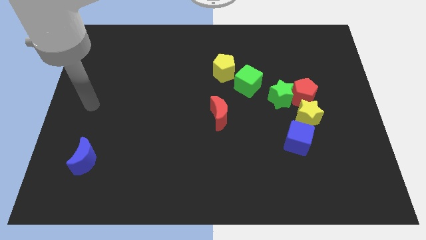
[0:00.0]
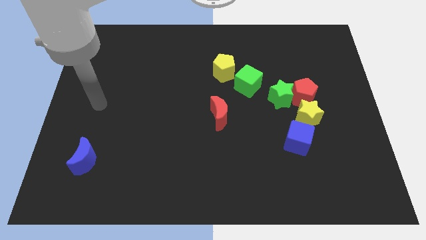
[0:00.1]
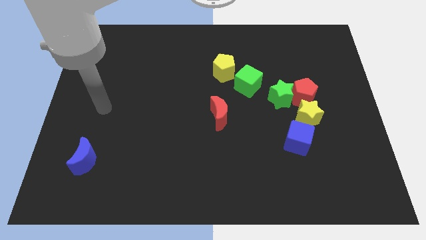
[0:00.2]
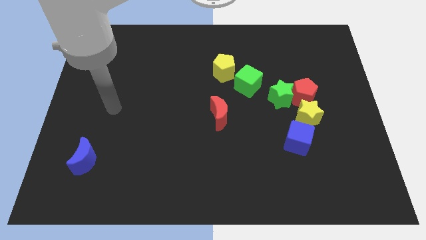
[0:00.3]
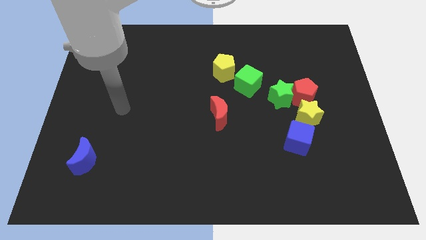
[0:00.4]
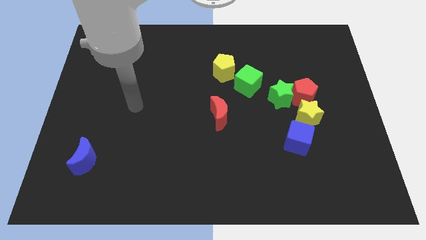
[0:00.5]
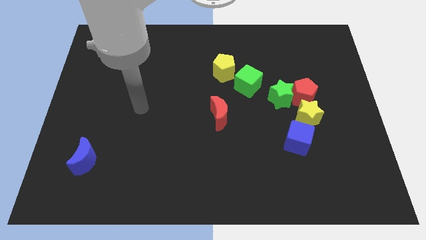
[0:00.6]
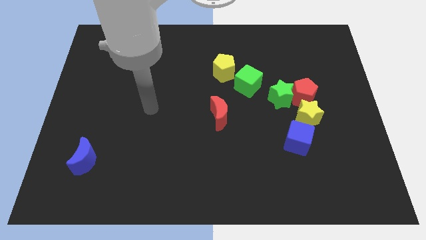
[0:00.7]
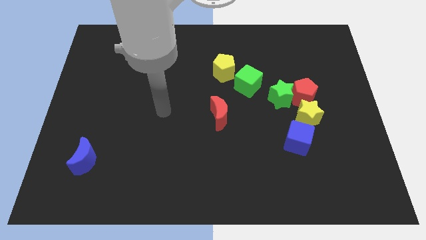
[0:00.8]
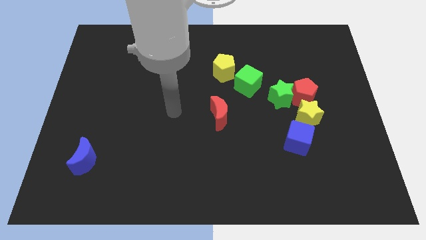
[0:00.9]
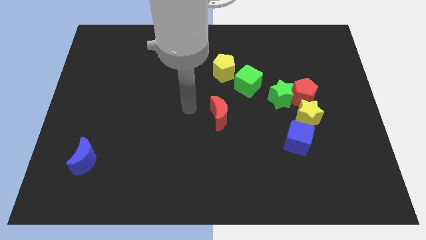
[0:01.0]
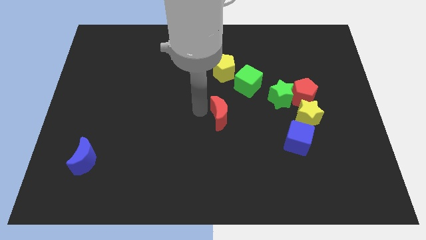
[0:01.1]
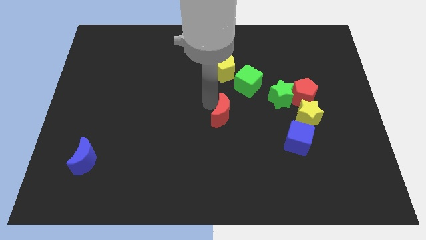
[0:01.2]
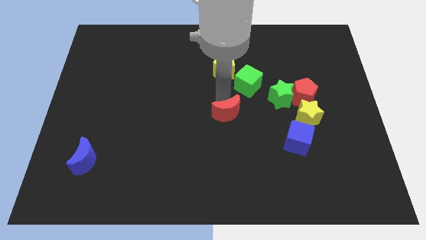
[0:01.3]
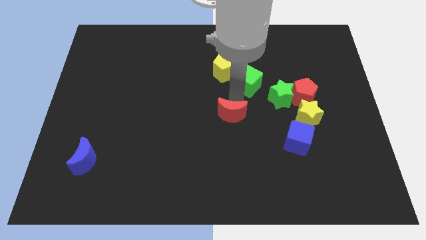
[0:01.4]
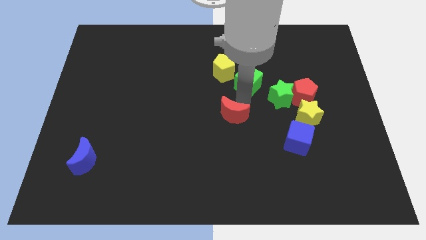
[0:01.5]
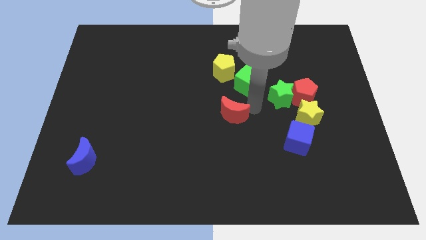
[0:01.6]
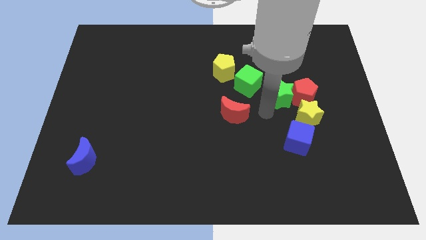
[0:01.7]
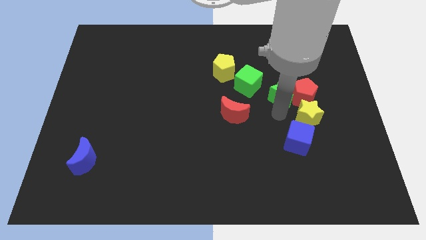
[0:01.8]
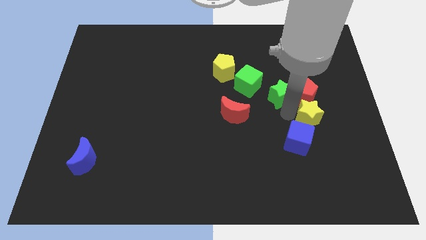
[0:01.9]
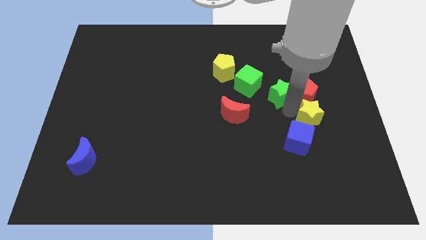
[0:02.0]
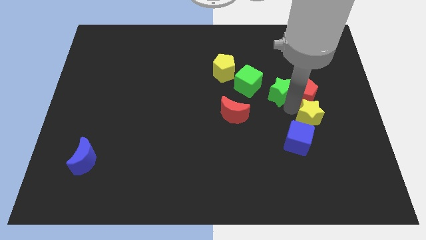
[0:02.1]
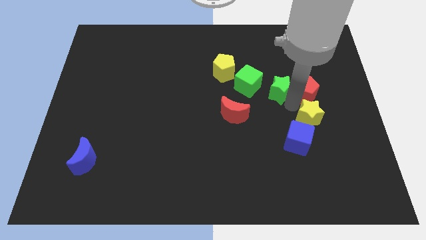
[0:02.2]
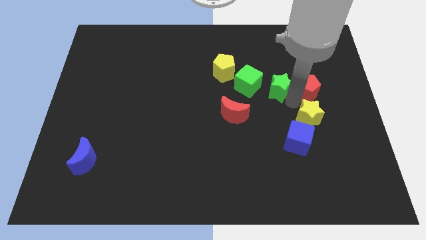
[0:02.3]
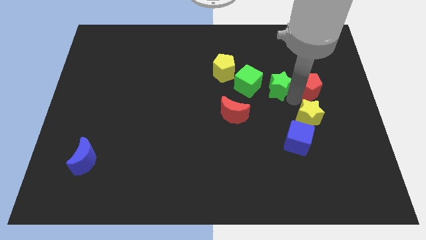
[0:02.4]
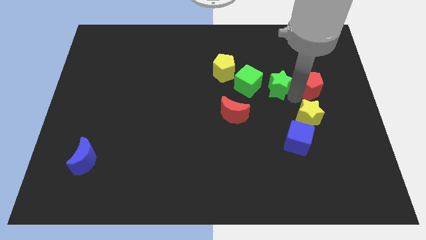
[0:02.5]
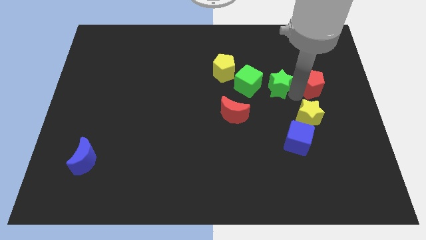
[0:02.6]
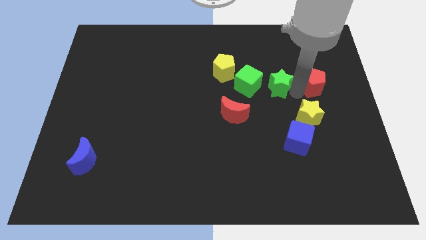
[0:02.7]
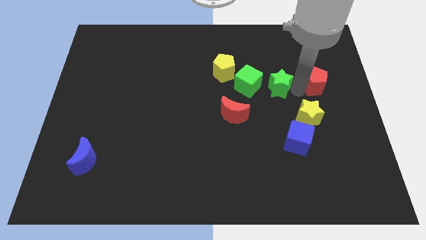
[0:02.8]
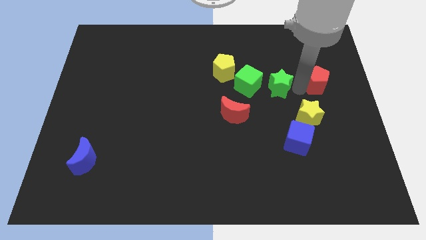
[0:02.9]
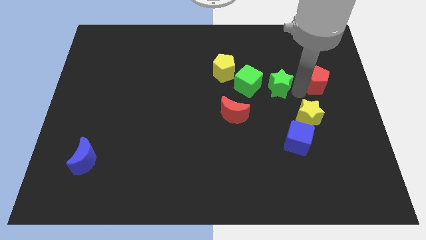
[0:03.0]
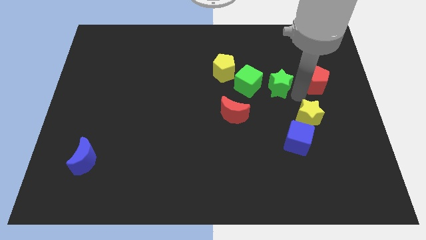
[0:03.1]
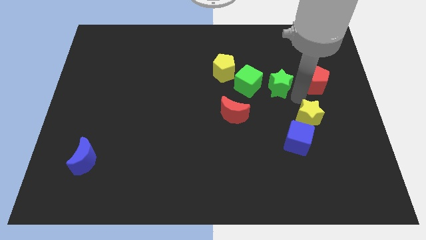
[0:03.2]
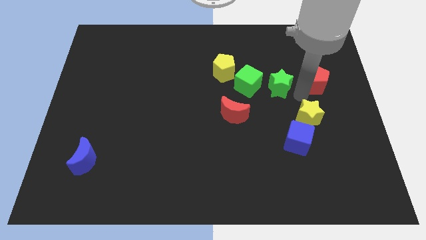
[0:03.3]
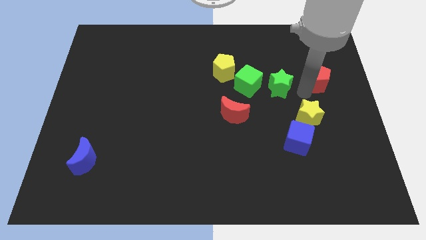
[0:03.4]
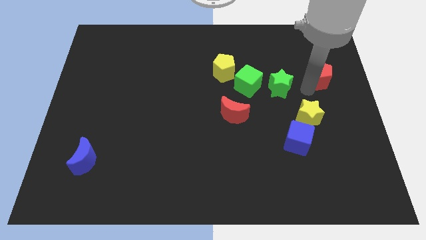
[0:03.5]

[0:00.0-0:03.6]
pull the red pentagon apart from the green star and yellow star

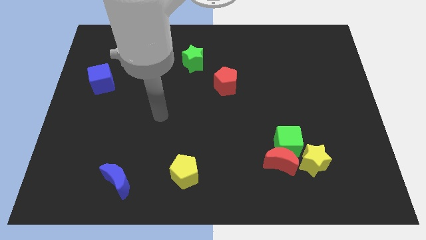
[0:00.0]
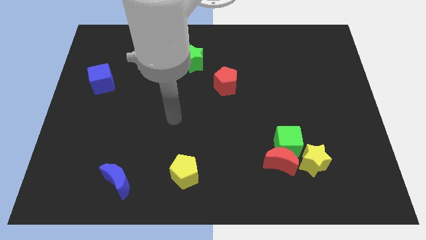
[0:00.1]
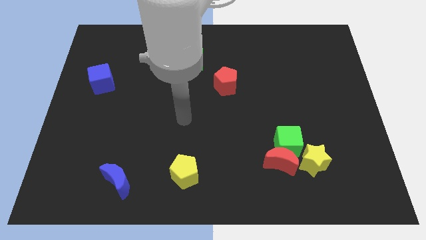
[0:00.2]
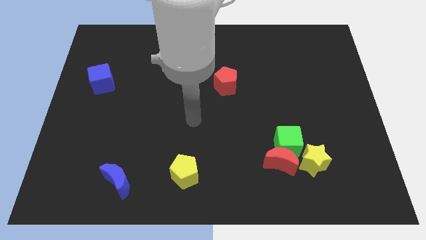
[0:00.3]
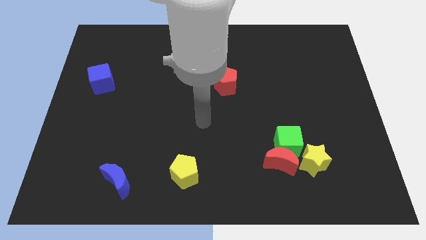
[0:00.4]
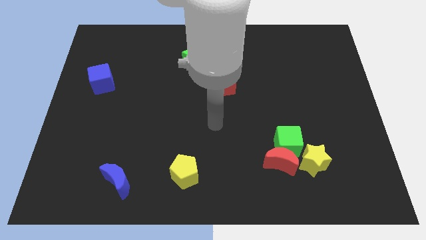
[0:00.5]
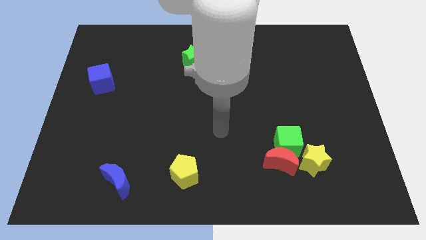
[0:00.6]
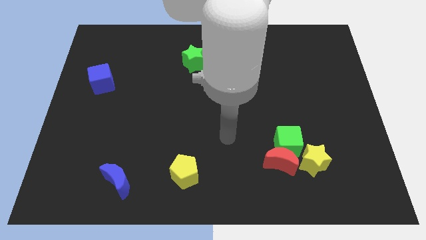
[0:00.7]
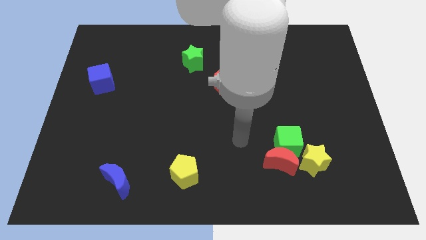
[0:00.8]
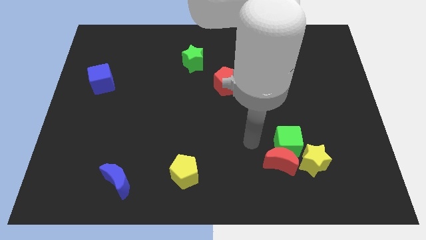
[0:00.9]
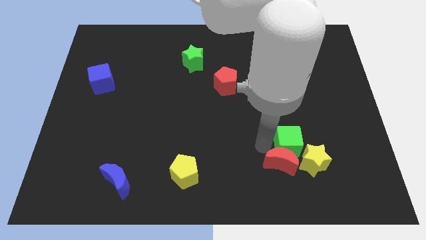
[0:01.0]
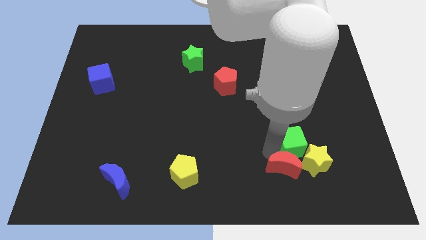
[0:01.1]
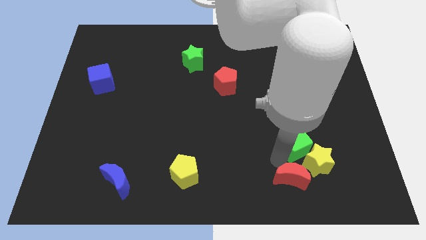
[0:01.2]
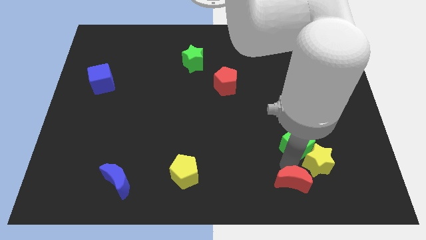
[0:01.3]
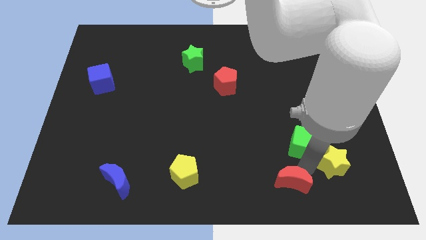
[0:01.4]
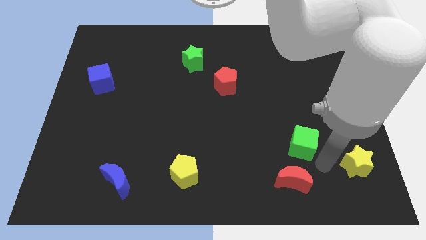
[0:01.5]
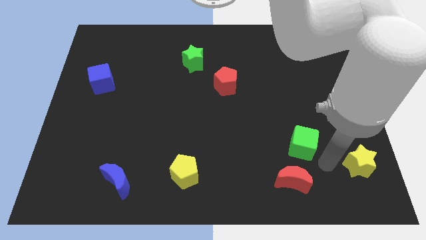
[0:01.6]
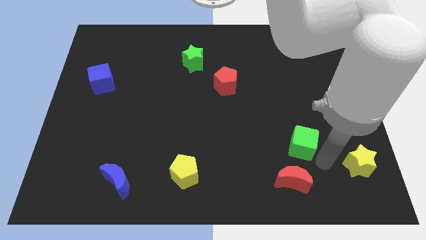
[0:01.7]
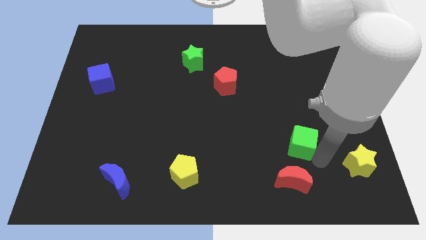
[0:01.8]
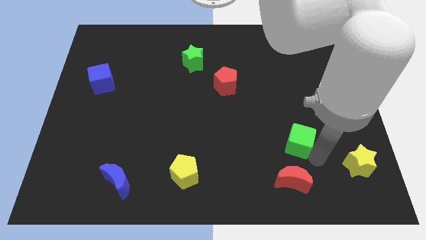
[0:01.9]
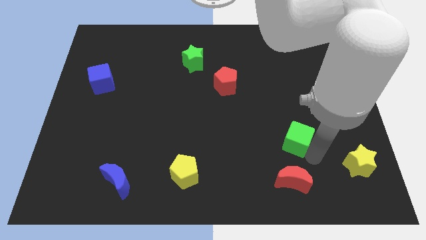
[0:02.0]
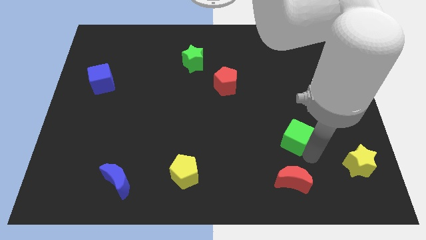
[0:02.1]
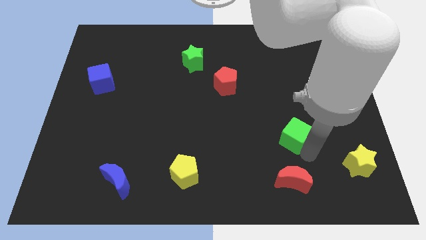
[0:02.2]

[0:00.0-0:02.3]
move the green cube away from the red moon and yellow star

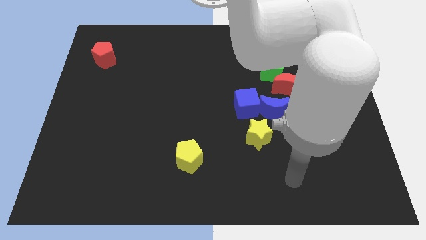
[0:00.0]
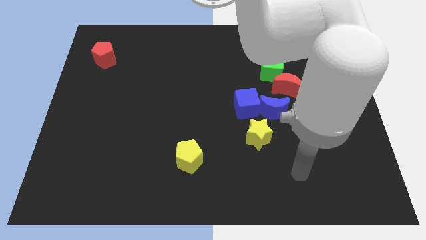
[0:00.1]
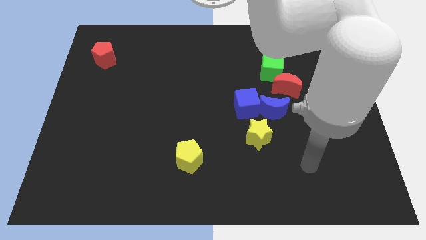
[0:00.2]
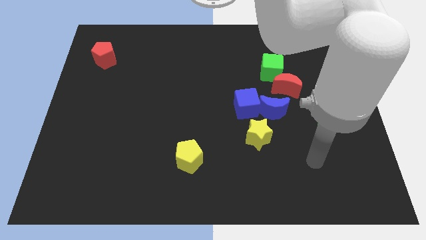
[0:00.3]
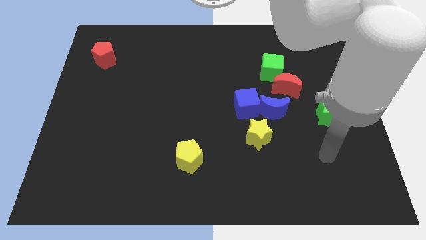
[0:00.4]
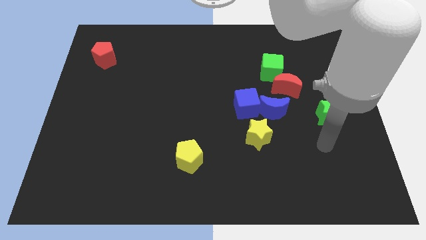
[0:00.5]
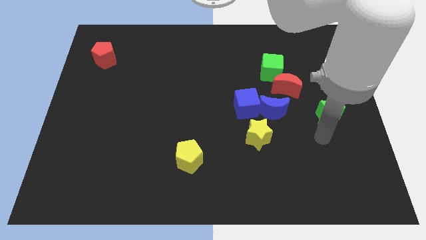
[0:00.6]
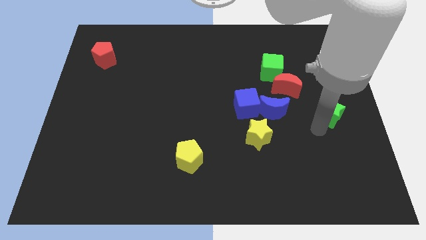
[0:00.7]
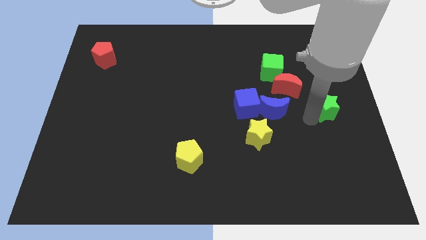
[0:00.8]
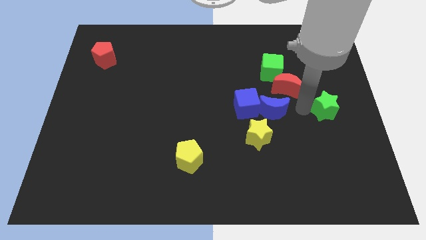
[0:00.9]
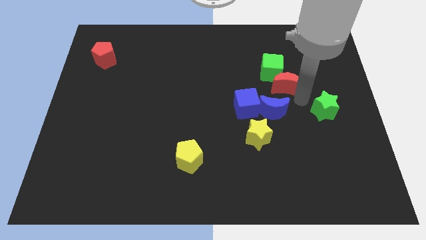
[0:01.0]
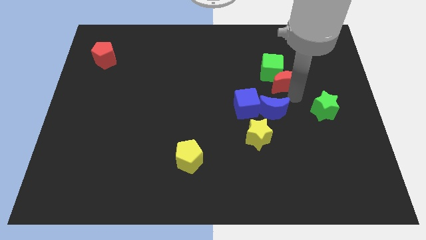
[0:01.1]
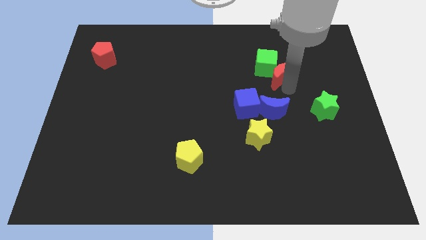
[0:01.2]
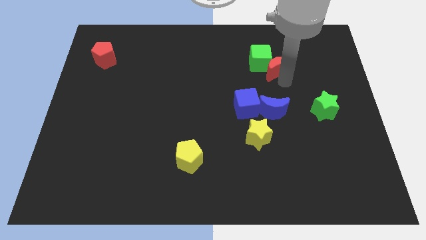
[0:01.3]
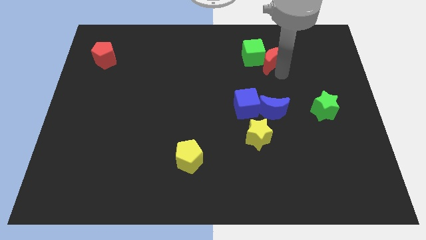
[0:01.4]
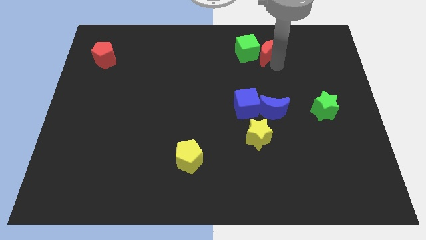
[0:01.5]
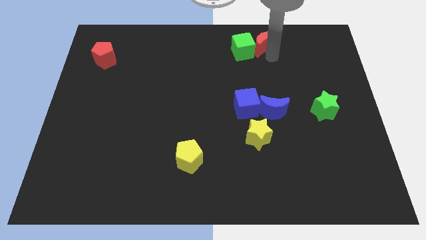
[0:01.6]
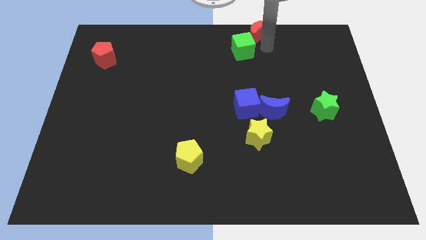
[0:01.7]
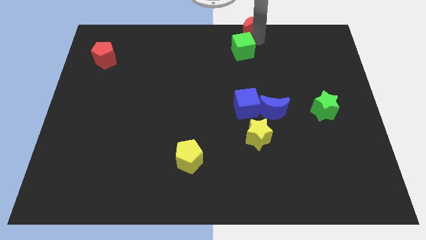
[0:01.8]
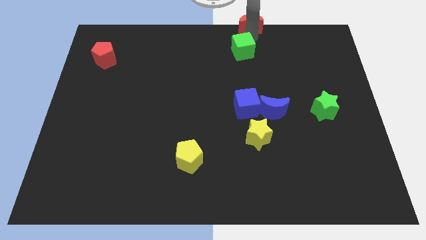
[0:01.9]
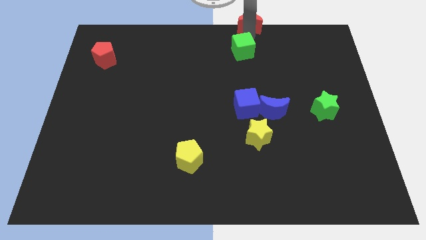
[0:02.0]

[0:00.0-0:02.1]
separate the green cube from the red moon

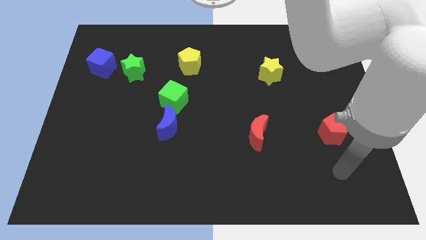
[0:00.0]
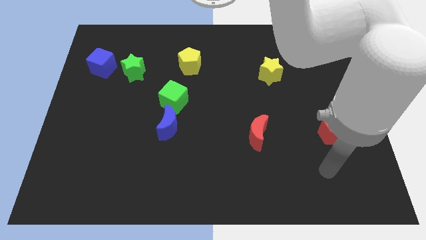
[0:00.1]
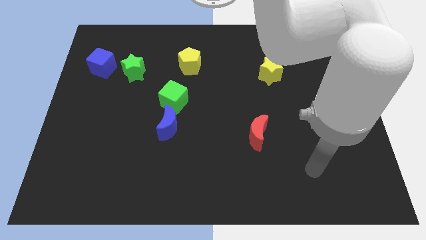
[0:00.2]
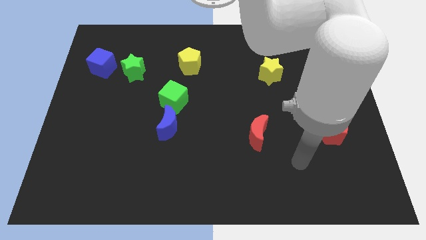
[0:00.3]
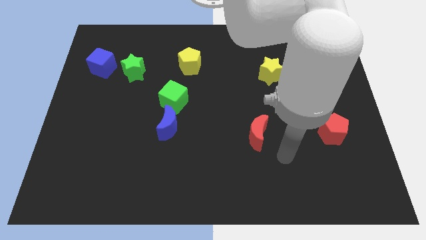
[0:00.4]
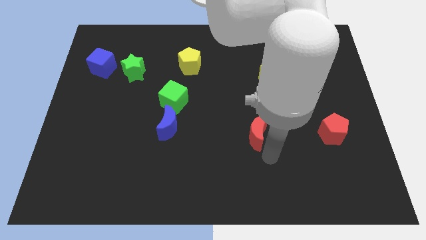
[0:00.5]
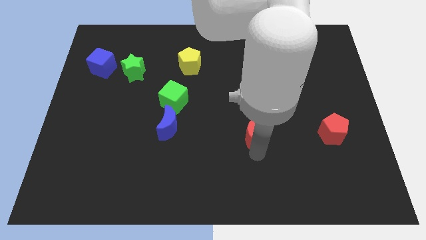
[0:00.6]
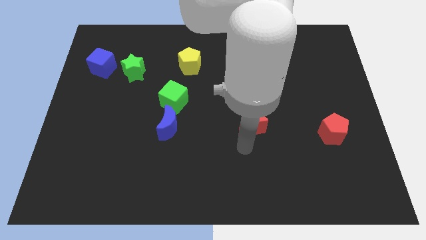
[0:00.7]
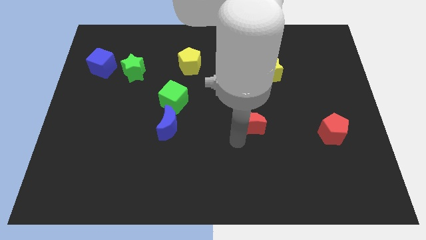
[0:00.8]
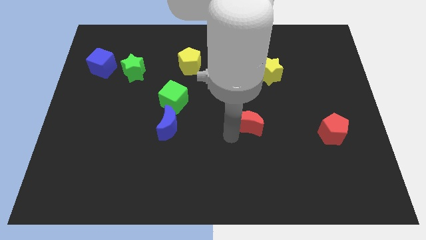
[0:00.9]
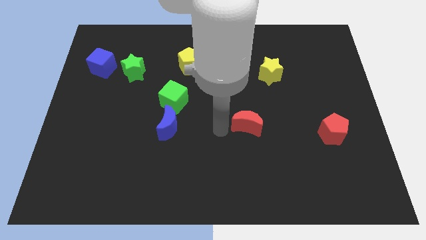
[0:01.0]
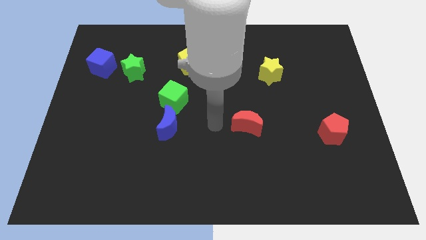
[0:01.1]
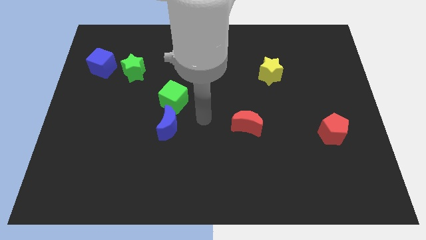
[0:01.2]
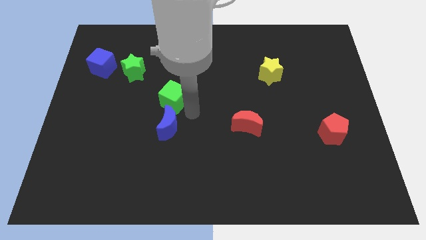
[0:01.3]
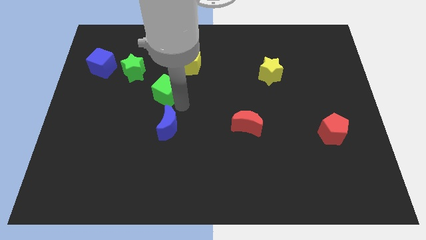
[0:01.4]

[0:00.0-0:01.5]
separate the blue moon from the green cube
